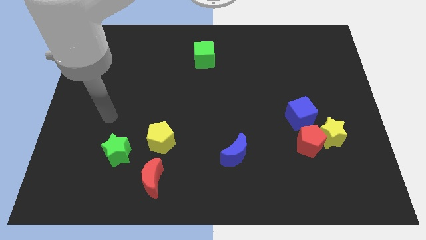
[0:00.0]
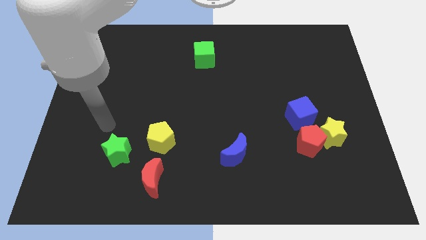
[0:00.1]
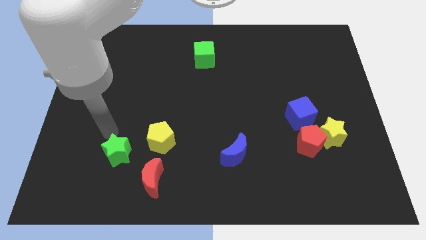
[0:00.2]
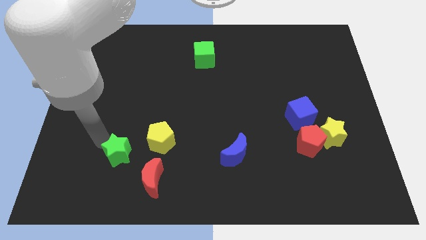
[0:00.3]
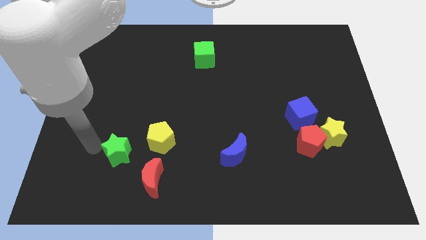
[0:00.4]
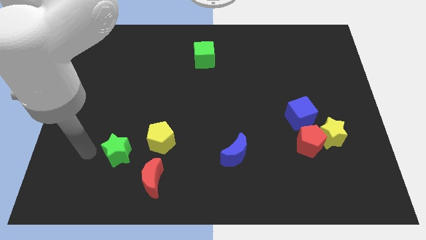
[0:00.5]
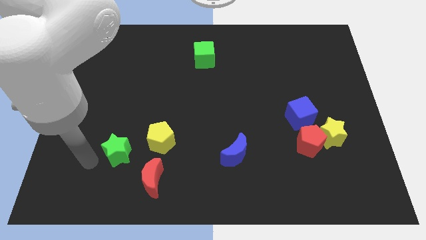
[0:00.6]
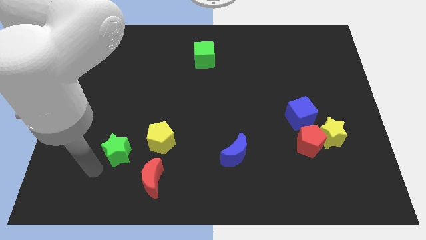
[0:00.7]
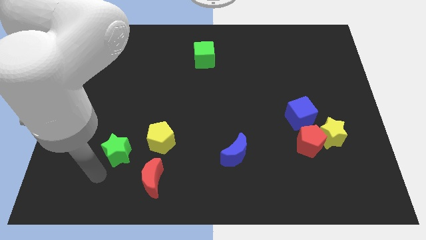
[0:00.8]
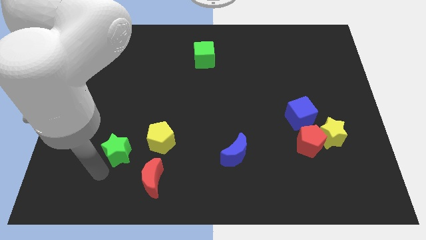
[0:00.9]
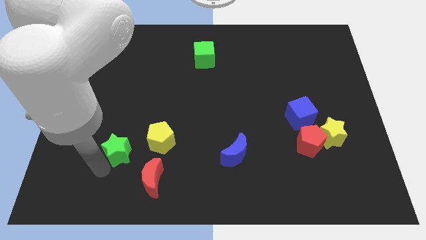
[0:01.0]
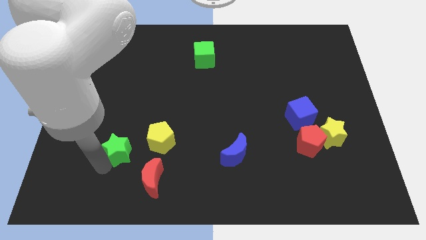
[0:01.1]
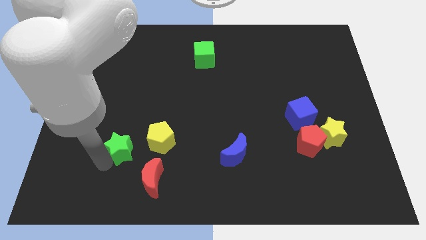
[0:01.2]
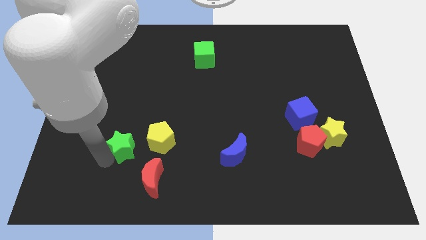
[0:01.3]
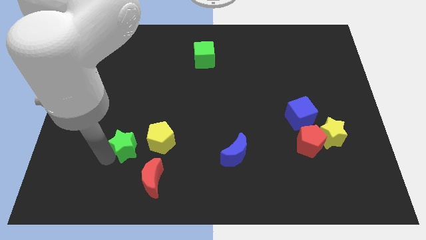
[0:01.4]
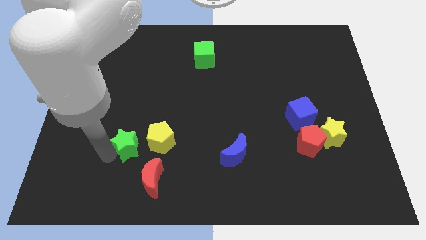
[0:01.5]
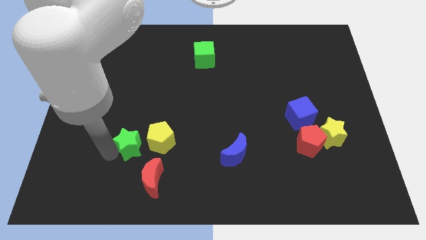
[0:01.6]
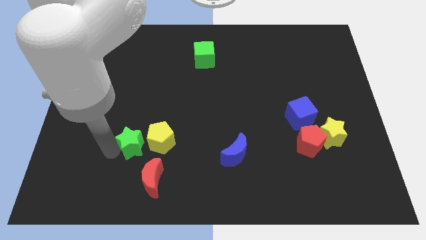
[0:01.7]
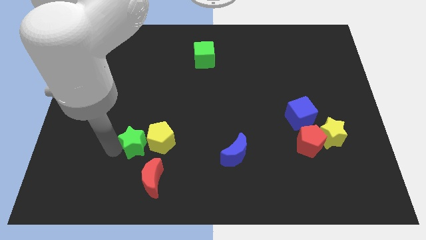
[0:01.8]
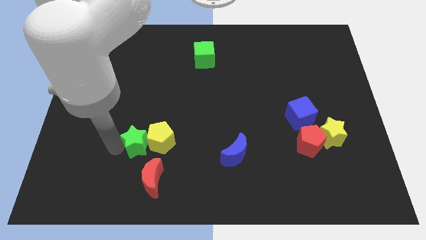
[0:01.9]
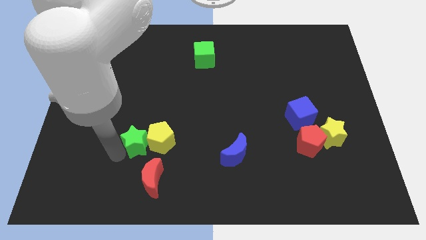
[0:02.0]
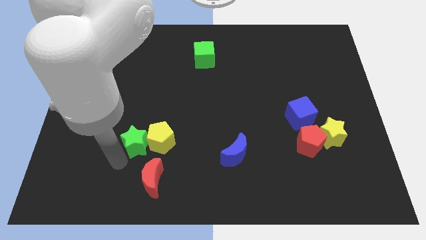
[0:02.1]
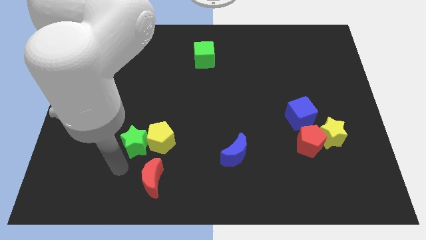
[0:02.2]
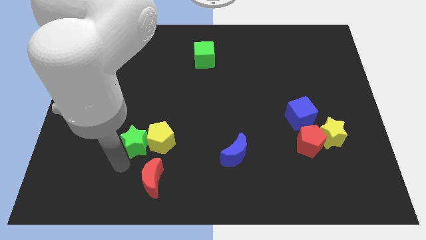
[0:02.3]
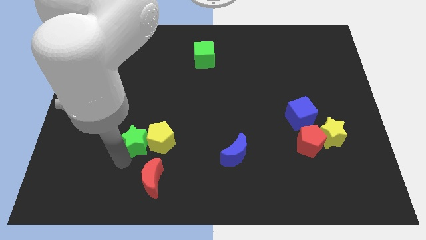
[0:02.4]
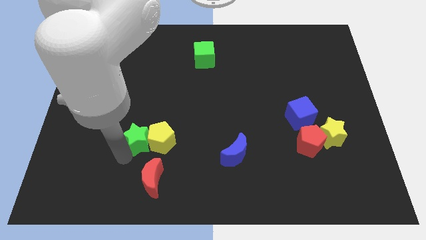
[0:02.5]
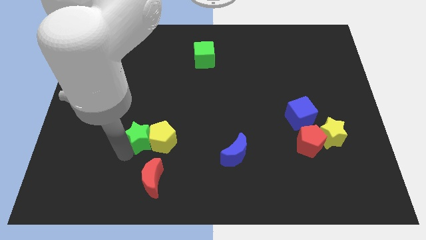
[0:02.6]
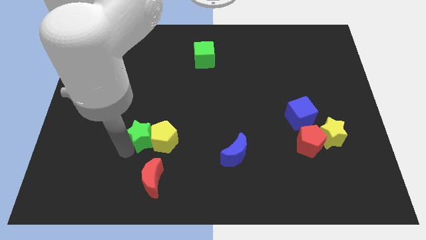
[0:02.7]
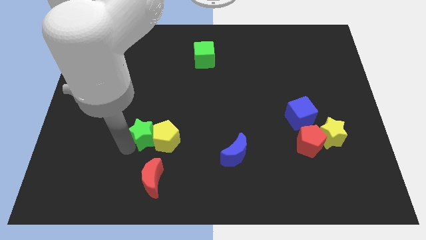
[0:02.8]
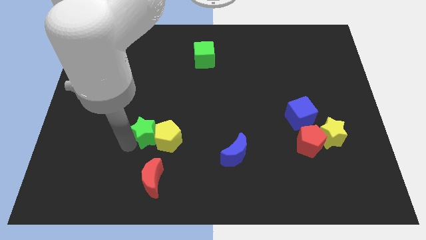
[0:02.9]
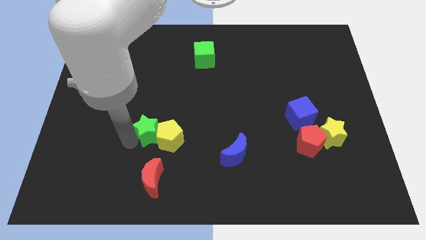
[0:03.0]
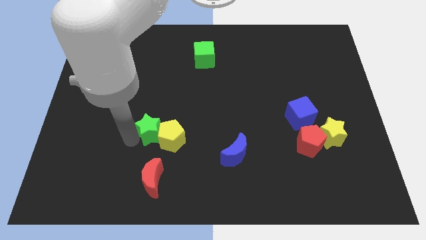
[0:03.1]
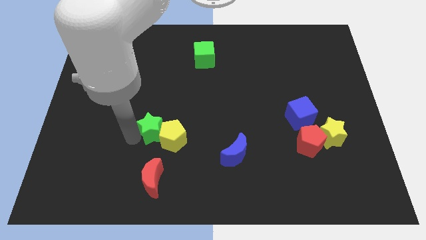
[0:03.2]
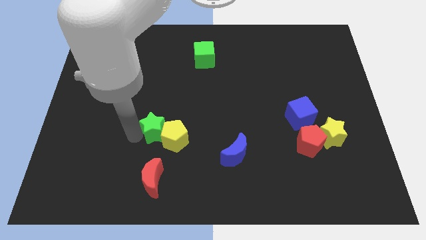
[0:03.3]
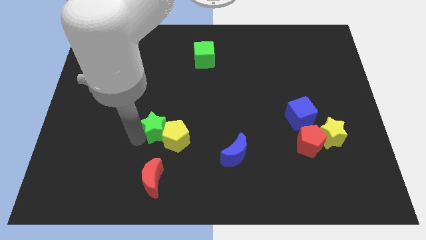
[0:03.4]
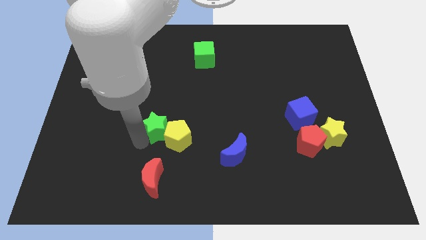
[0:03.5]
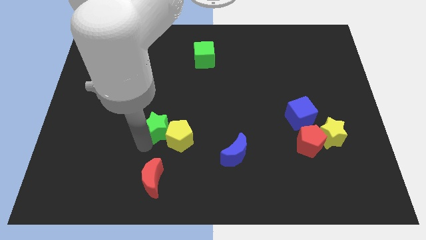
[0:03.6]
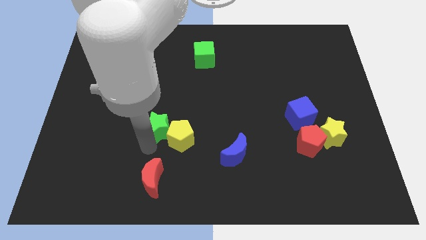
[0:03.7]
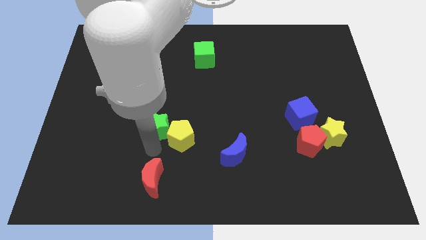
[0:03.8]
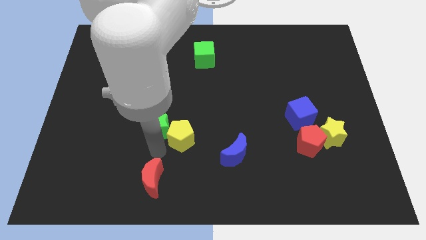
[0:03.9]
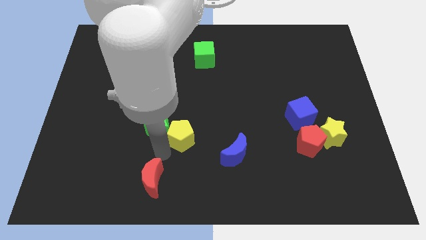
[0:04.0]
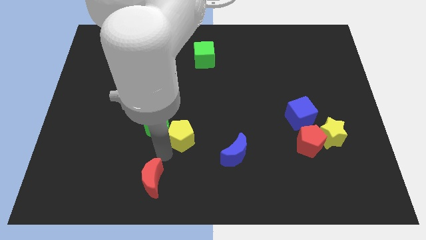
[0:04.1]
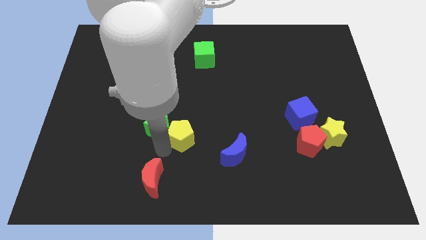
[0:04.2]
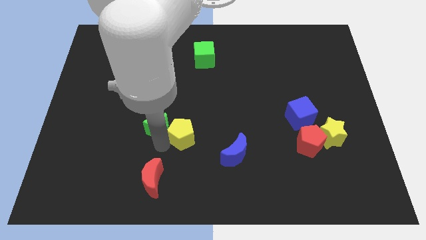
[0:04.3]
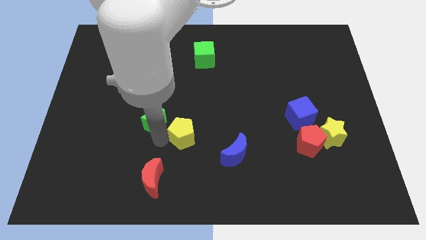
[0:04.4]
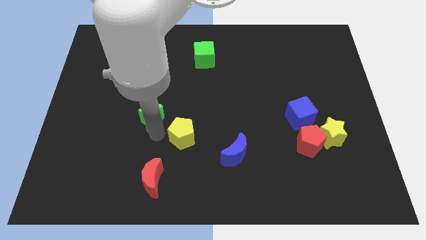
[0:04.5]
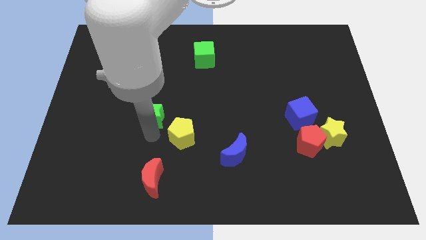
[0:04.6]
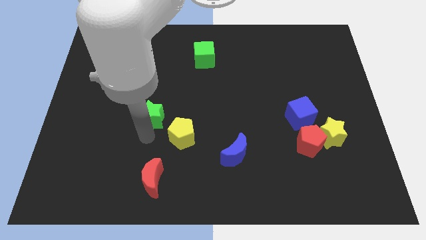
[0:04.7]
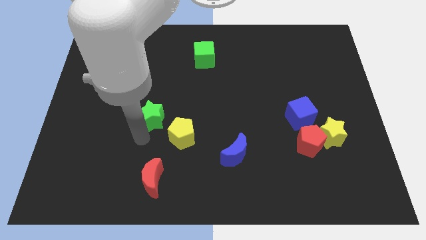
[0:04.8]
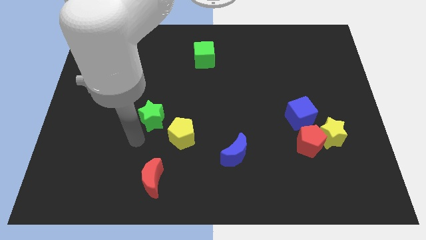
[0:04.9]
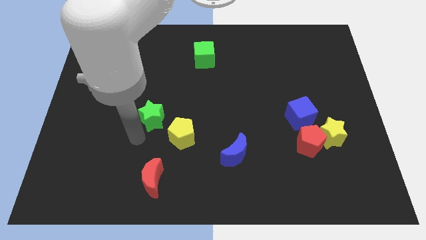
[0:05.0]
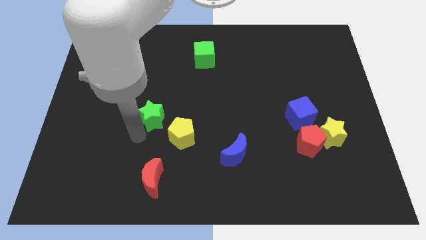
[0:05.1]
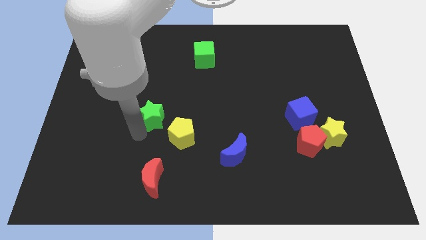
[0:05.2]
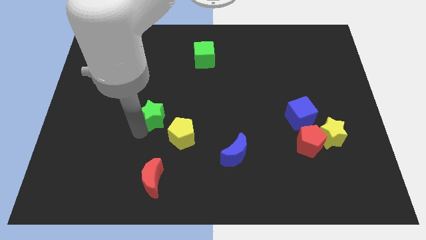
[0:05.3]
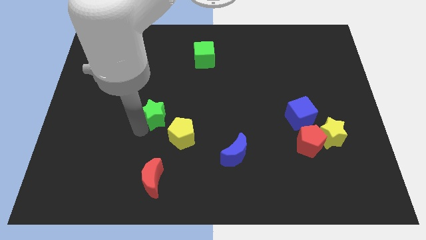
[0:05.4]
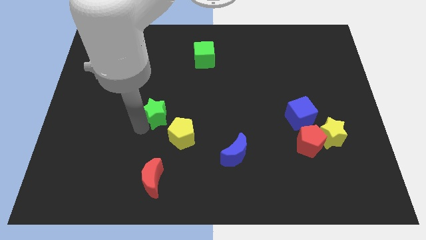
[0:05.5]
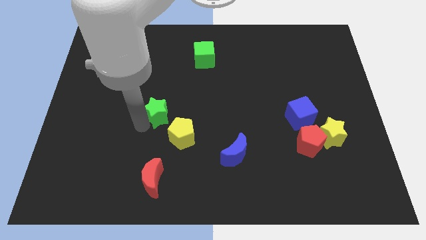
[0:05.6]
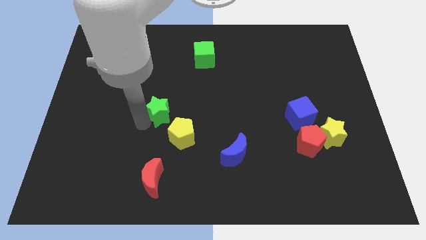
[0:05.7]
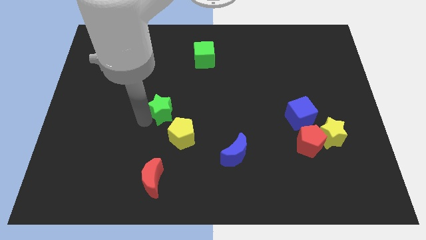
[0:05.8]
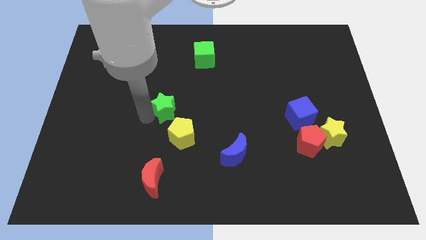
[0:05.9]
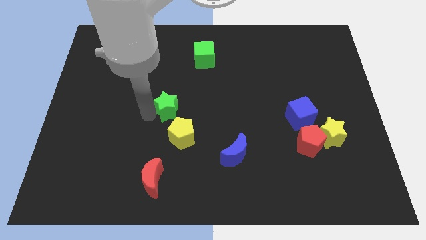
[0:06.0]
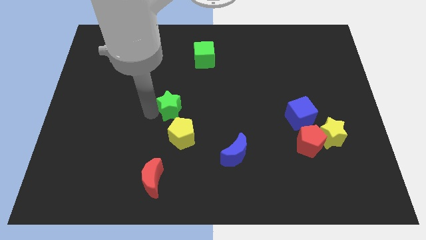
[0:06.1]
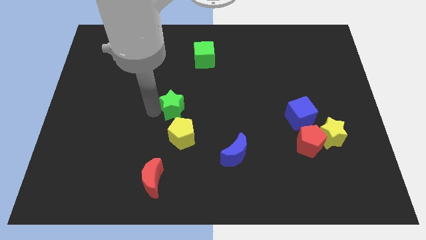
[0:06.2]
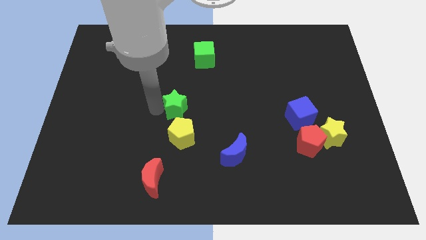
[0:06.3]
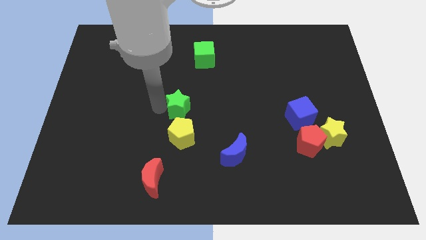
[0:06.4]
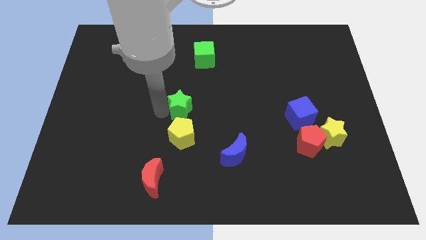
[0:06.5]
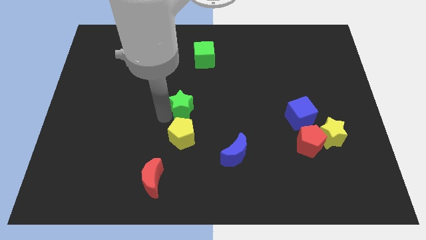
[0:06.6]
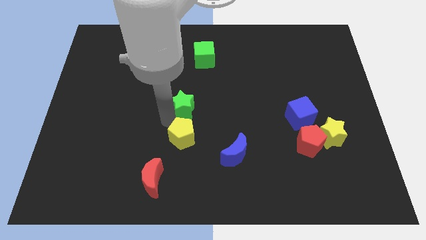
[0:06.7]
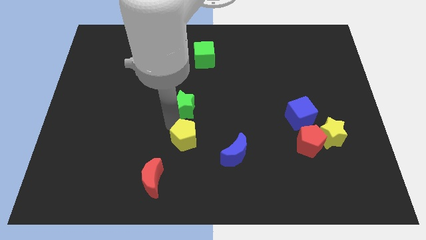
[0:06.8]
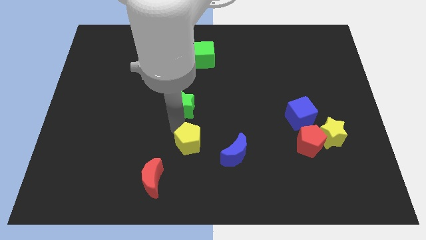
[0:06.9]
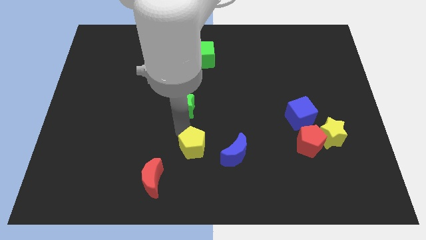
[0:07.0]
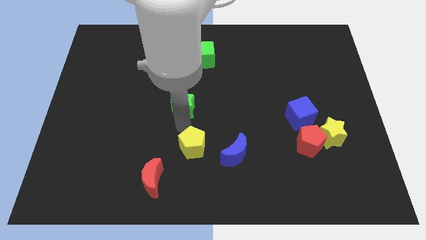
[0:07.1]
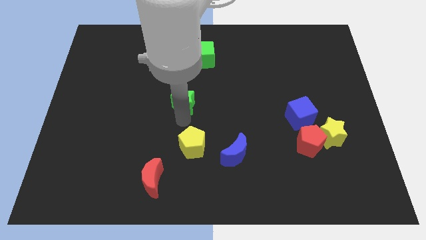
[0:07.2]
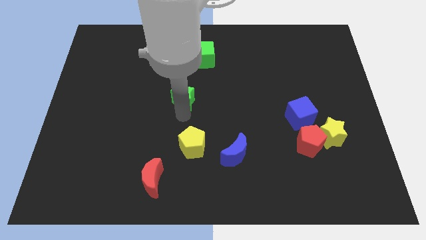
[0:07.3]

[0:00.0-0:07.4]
push the green star up and then to the right

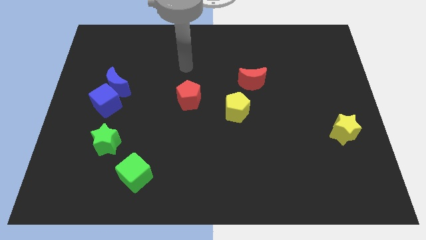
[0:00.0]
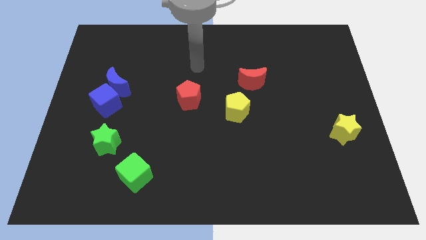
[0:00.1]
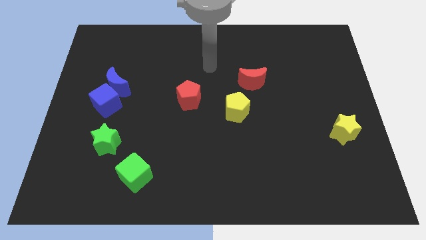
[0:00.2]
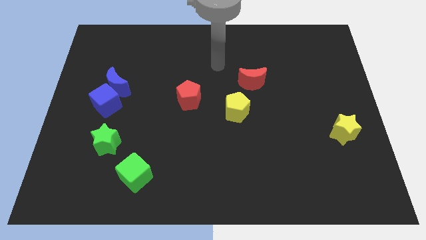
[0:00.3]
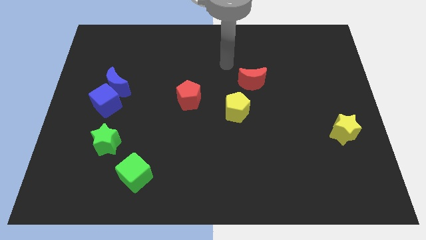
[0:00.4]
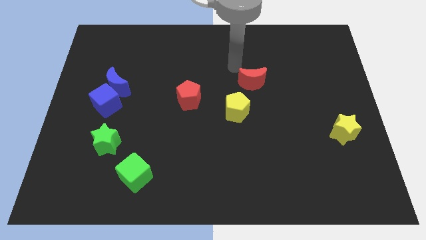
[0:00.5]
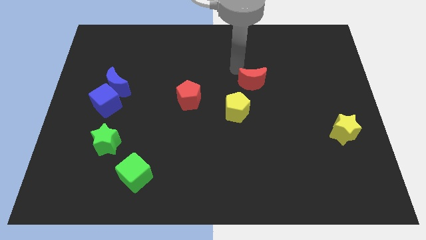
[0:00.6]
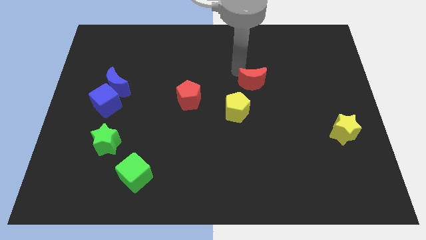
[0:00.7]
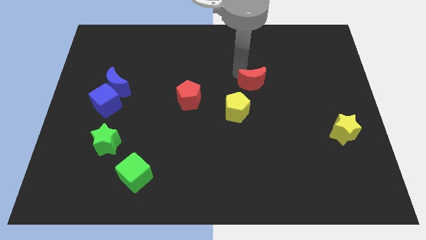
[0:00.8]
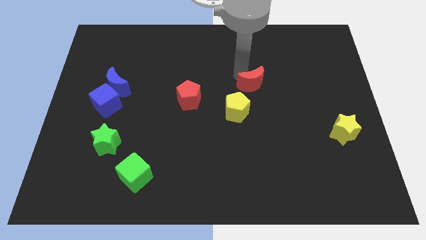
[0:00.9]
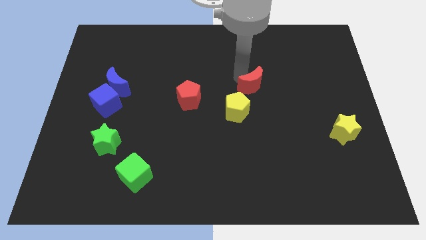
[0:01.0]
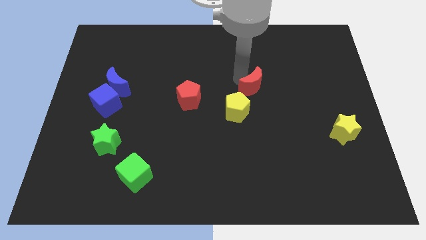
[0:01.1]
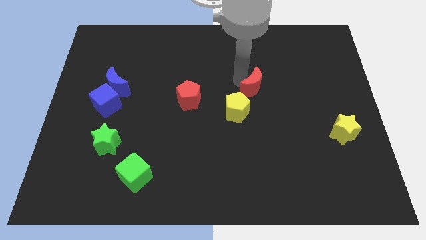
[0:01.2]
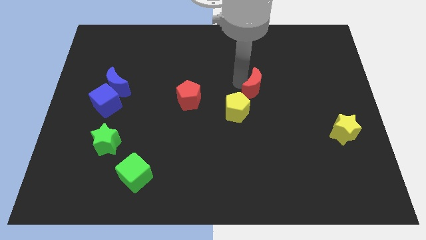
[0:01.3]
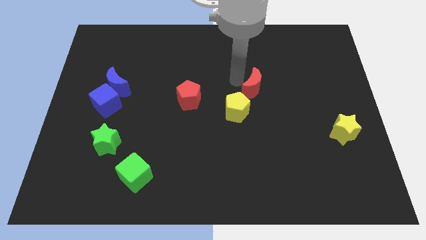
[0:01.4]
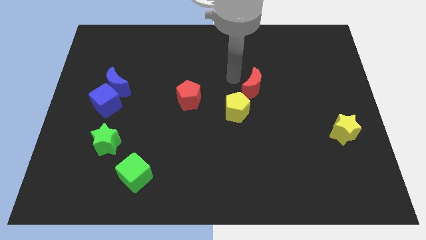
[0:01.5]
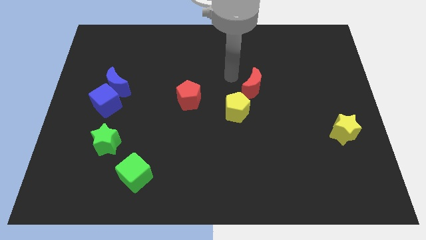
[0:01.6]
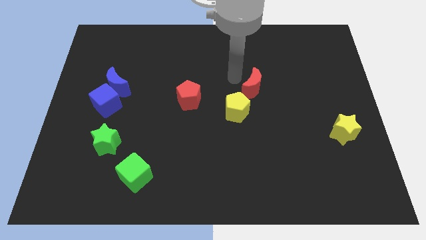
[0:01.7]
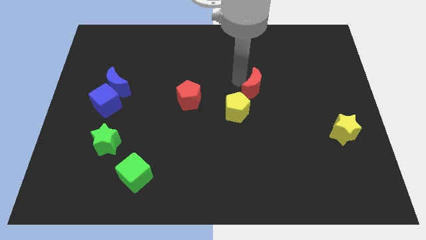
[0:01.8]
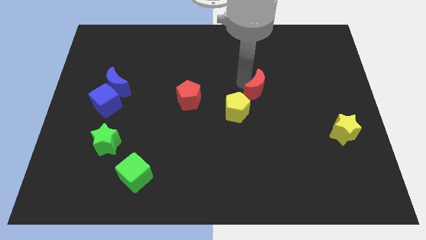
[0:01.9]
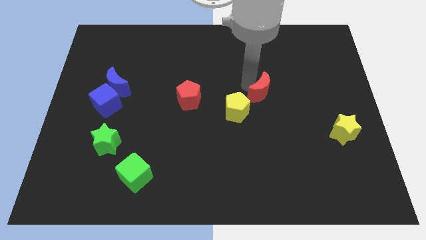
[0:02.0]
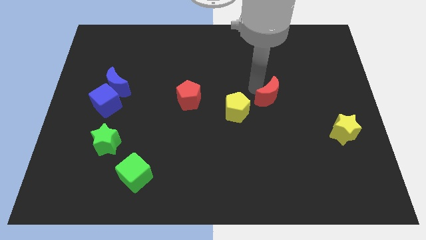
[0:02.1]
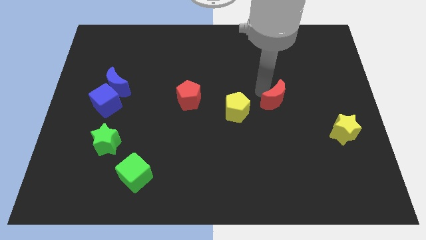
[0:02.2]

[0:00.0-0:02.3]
move the red moon diagonally down and to the right slightly
